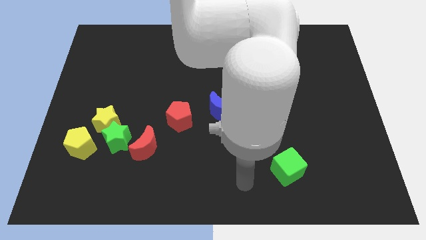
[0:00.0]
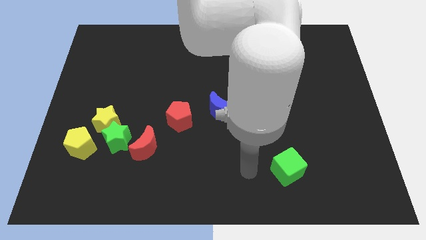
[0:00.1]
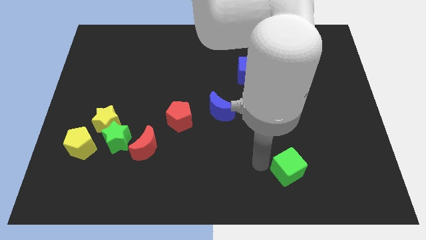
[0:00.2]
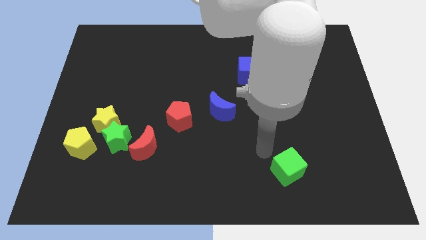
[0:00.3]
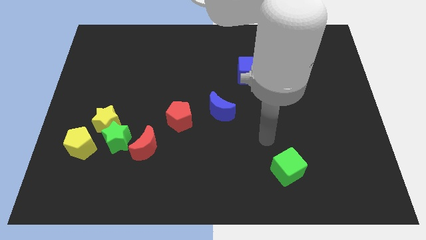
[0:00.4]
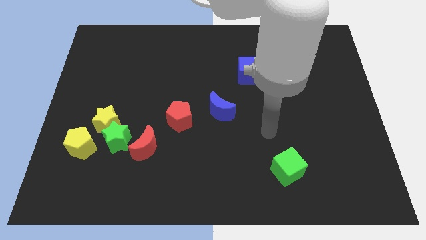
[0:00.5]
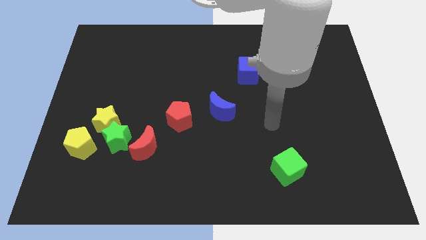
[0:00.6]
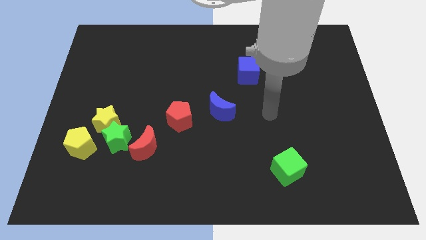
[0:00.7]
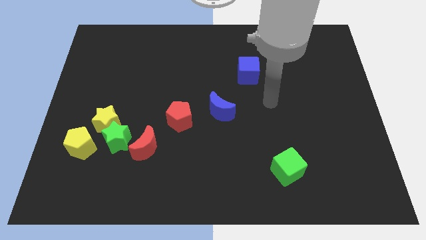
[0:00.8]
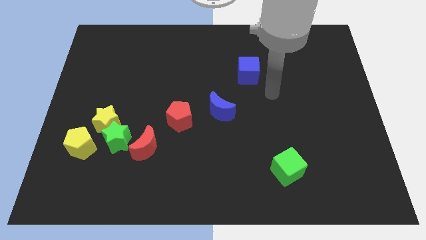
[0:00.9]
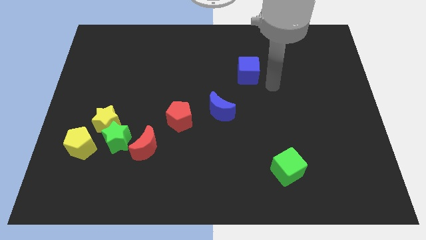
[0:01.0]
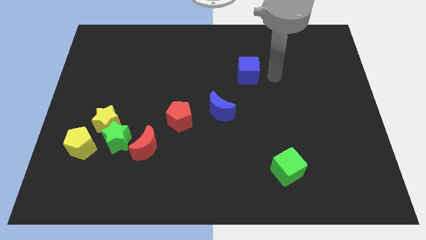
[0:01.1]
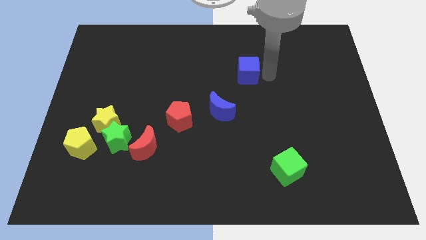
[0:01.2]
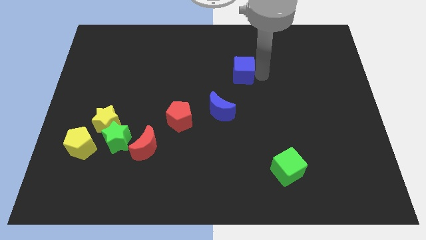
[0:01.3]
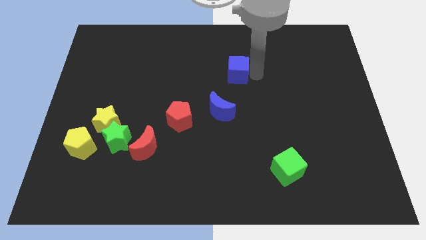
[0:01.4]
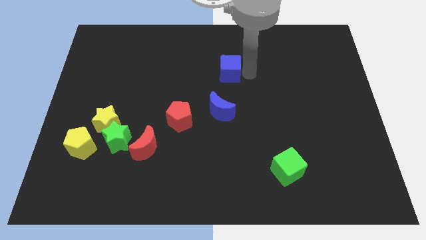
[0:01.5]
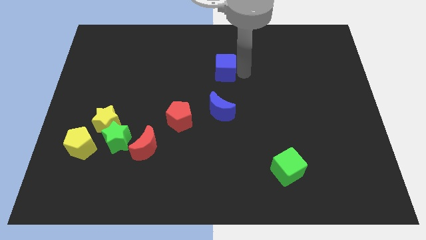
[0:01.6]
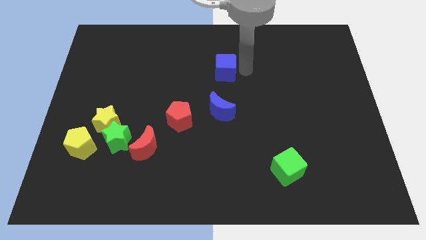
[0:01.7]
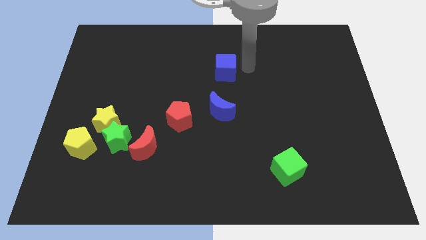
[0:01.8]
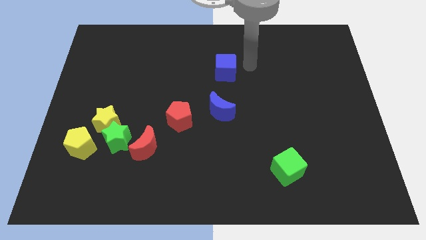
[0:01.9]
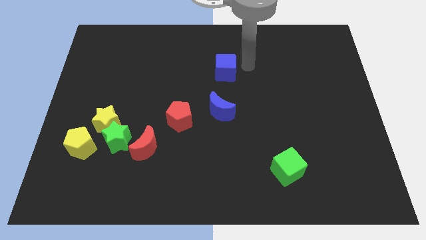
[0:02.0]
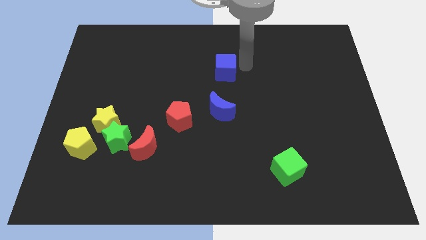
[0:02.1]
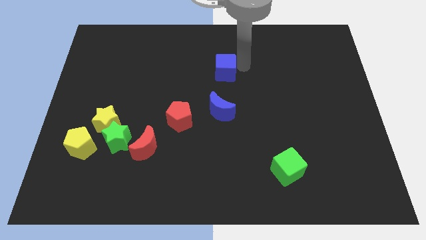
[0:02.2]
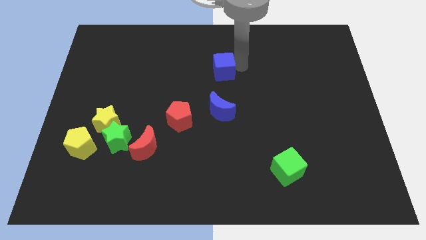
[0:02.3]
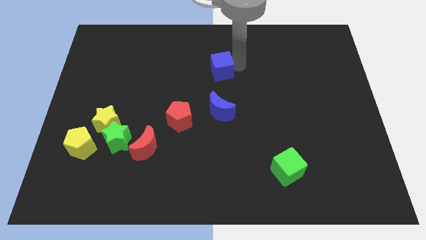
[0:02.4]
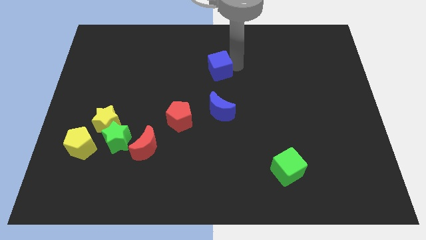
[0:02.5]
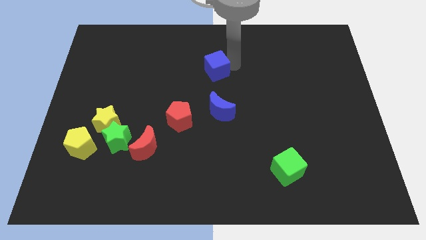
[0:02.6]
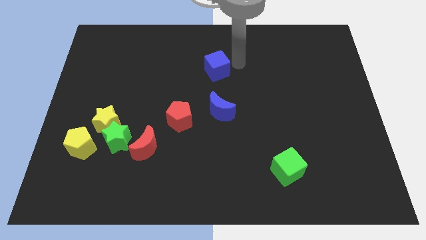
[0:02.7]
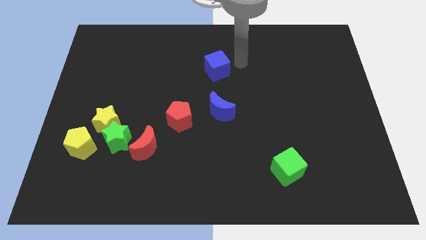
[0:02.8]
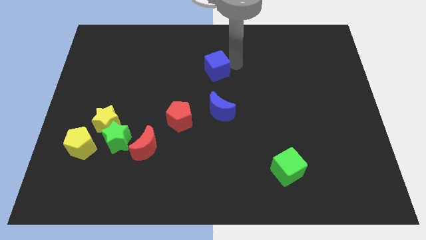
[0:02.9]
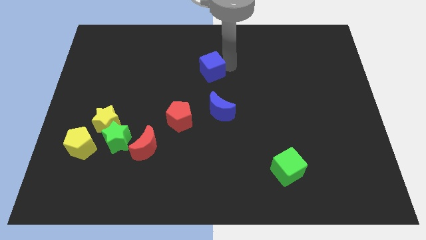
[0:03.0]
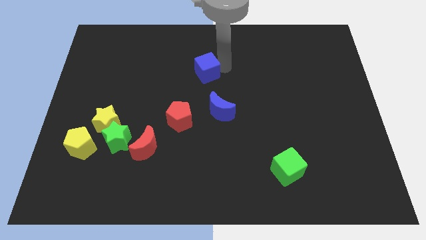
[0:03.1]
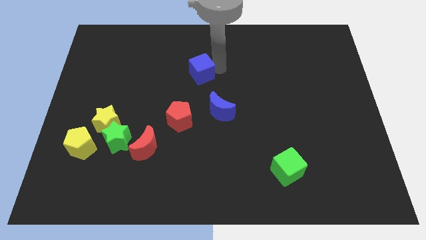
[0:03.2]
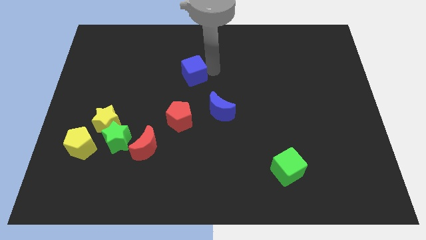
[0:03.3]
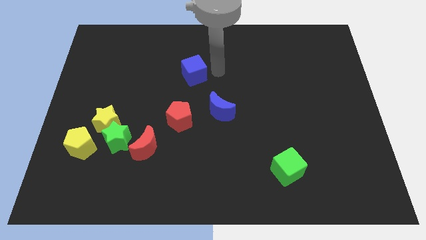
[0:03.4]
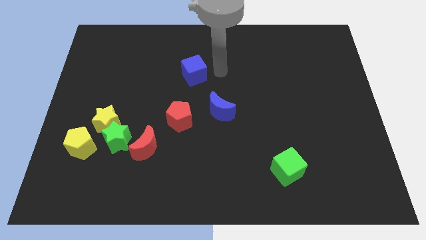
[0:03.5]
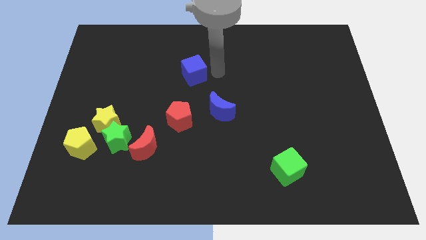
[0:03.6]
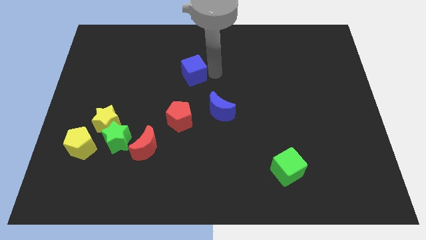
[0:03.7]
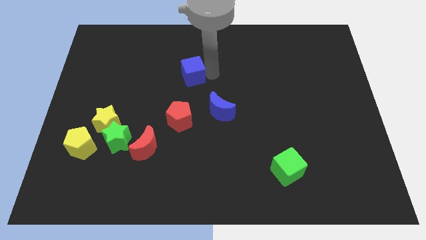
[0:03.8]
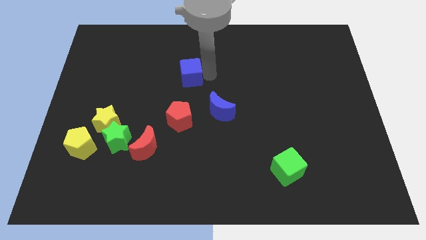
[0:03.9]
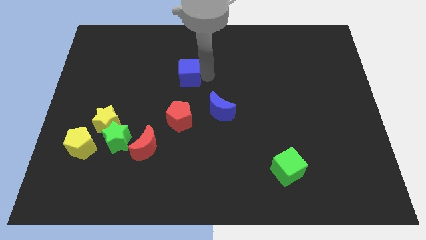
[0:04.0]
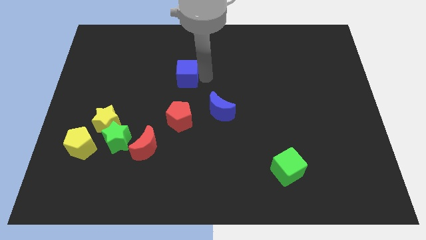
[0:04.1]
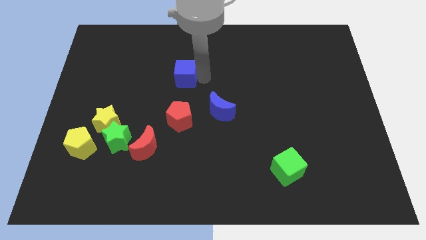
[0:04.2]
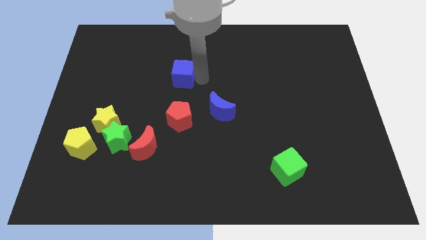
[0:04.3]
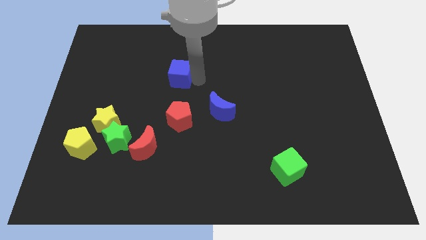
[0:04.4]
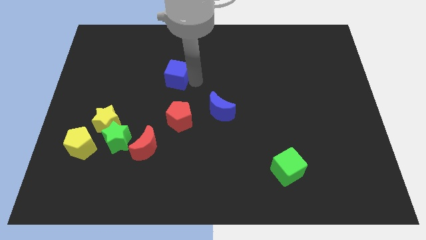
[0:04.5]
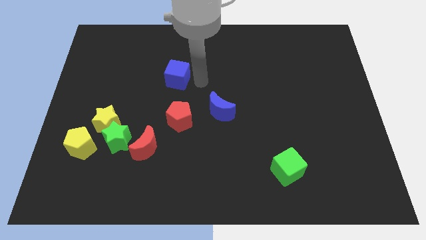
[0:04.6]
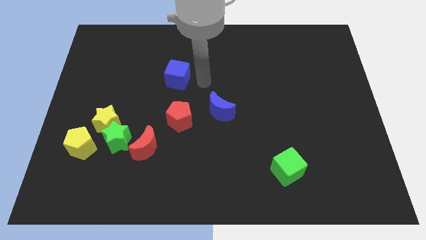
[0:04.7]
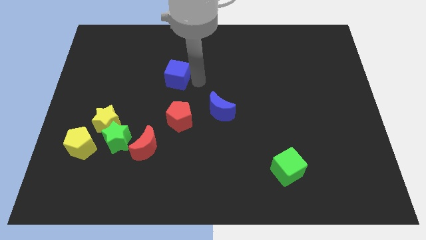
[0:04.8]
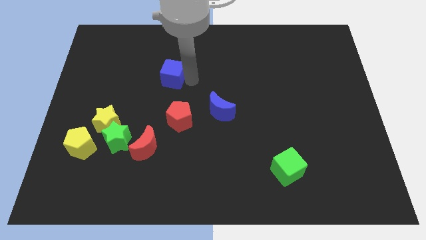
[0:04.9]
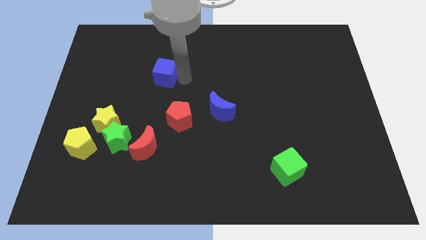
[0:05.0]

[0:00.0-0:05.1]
move the blue cube left

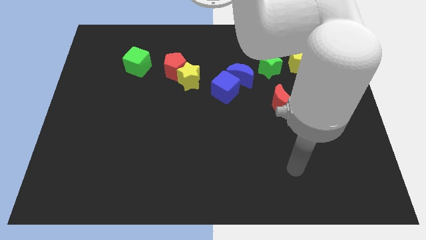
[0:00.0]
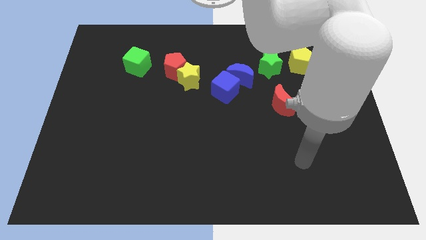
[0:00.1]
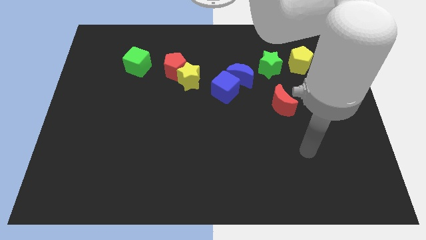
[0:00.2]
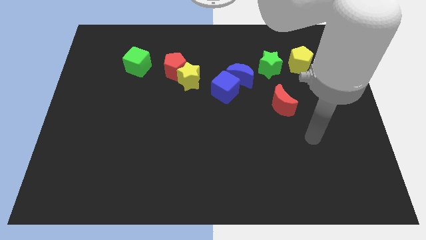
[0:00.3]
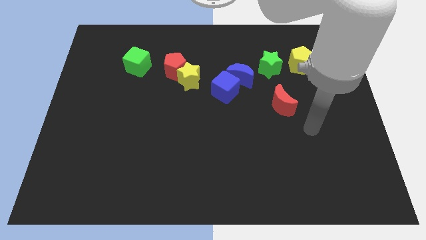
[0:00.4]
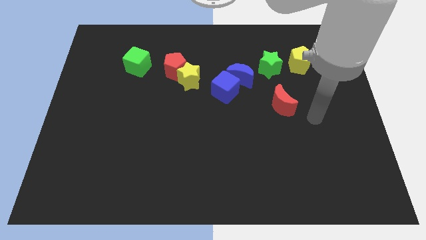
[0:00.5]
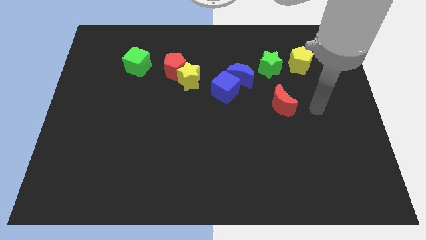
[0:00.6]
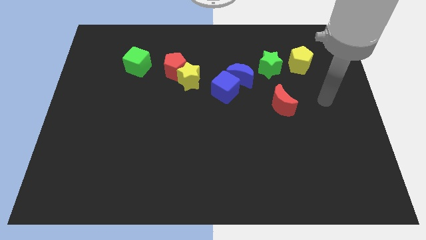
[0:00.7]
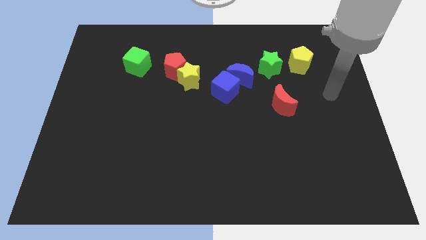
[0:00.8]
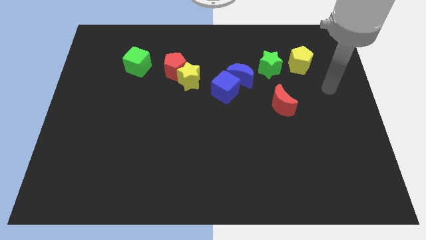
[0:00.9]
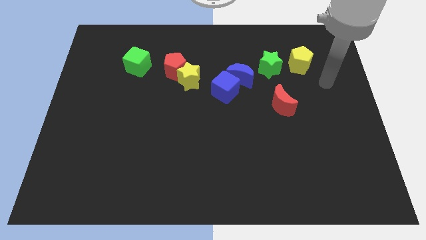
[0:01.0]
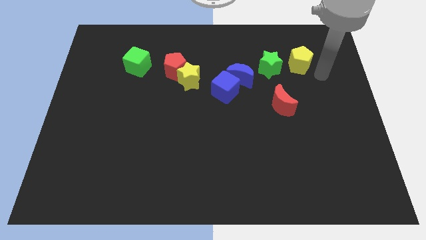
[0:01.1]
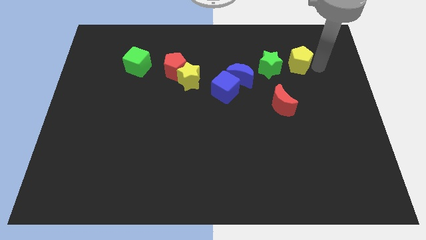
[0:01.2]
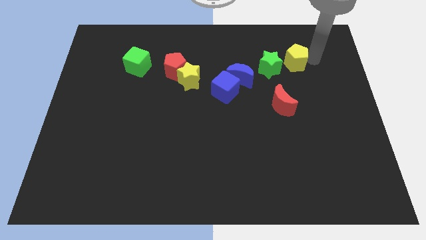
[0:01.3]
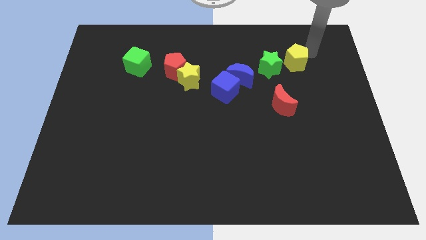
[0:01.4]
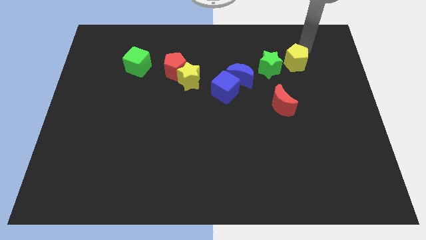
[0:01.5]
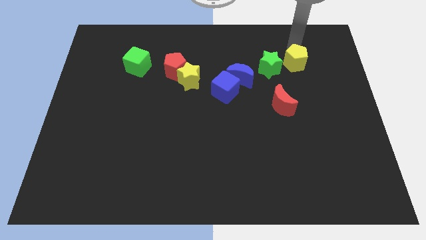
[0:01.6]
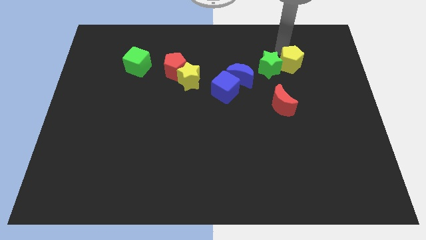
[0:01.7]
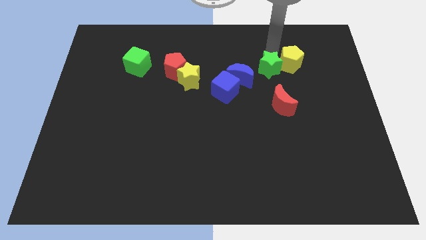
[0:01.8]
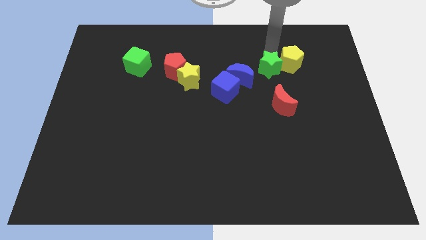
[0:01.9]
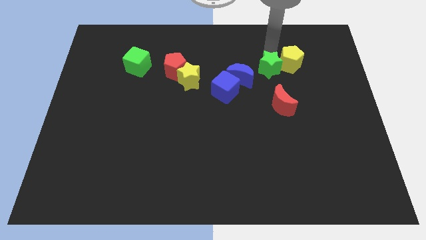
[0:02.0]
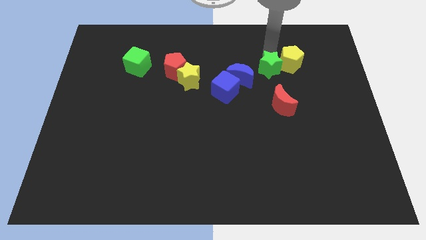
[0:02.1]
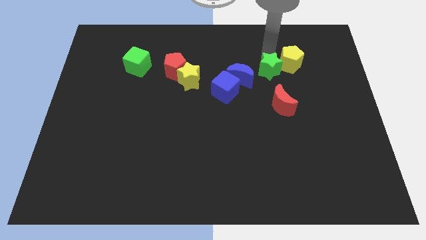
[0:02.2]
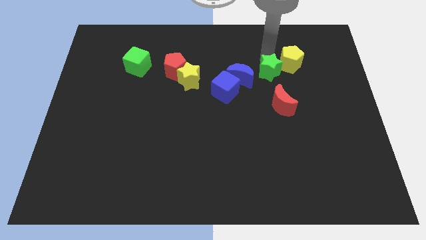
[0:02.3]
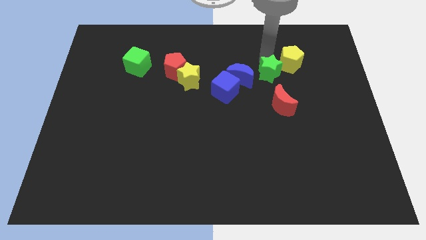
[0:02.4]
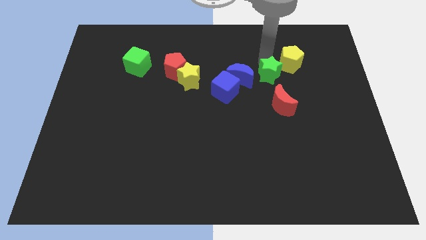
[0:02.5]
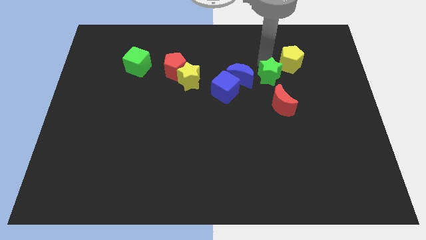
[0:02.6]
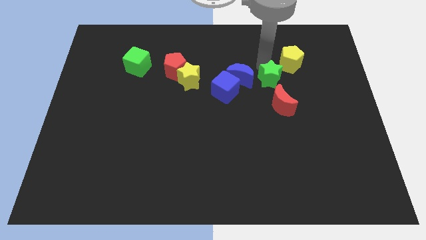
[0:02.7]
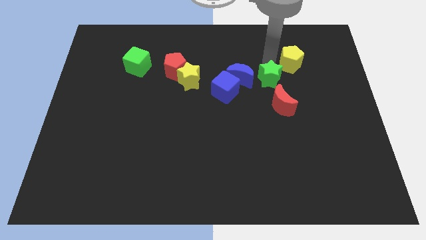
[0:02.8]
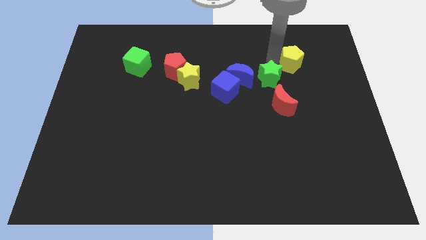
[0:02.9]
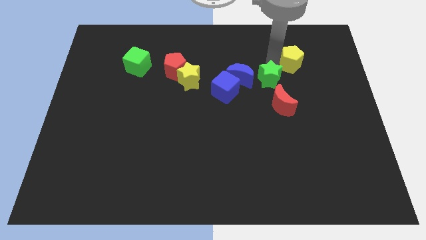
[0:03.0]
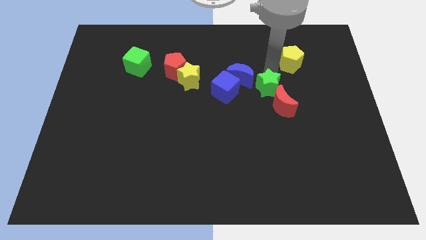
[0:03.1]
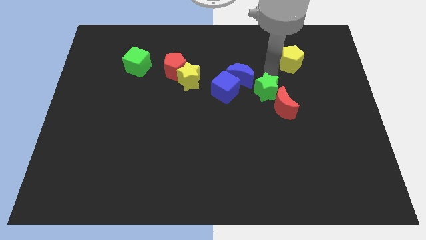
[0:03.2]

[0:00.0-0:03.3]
slide the green star slightly down
